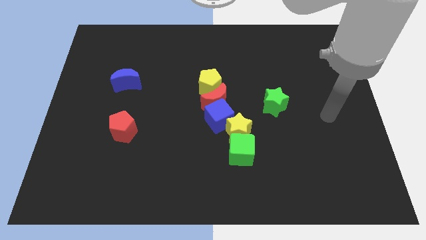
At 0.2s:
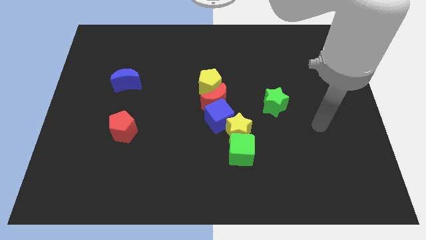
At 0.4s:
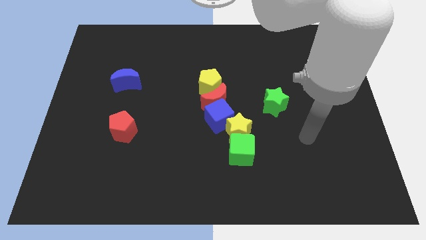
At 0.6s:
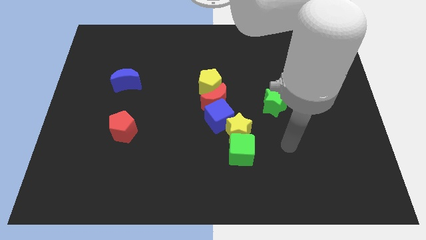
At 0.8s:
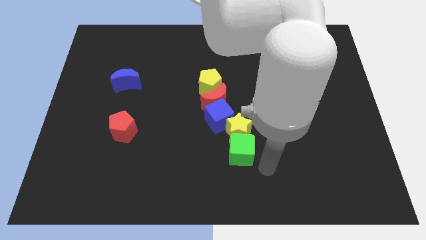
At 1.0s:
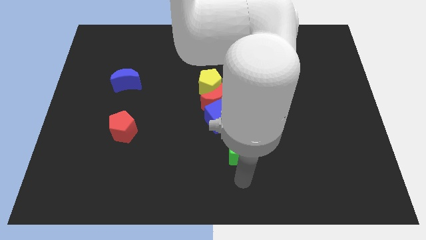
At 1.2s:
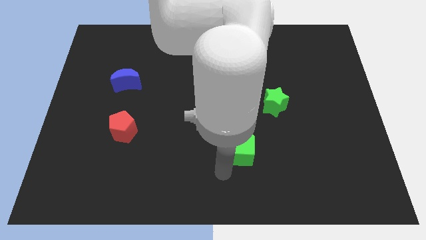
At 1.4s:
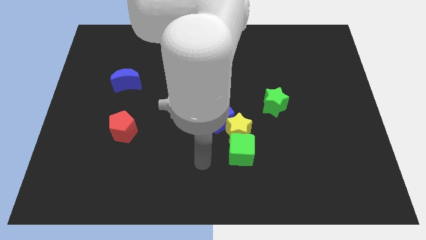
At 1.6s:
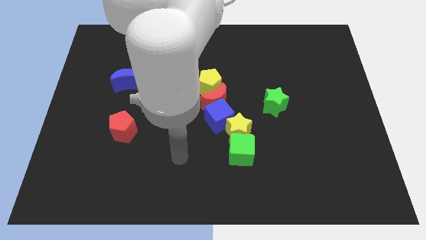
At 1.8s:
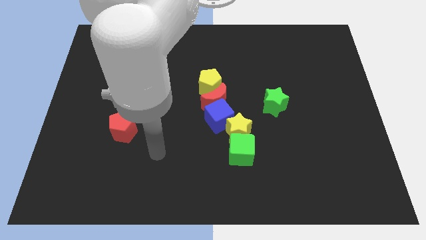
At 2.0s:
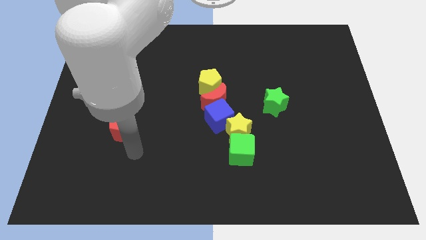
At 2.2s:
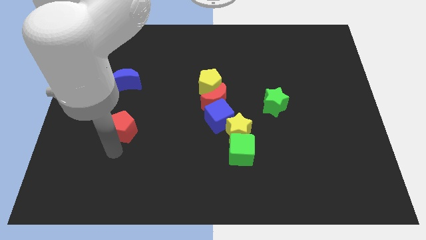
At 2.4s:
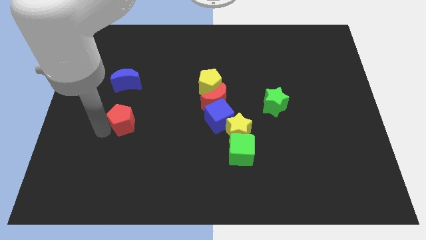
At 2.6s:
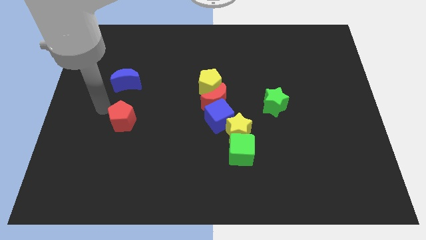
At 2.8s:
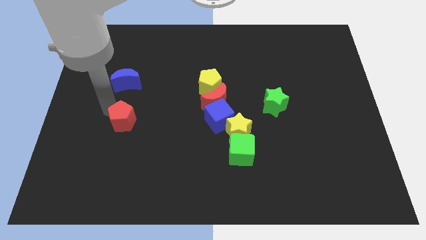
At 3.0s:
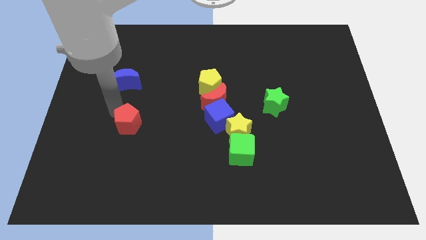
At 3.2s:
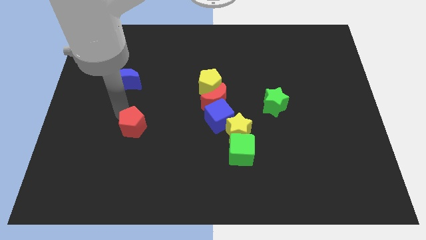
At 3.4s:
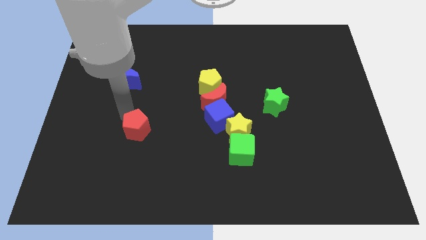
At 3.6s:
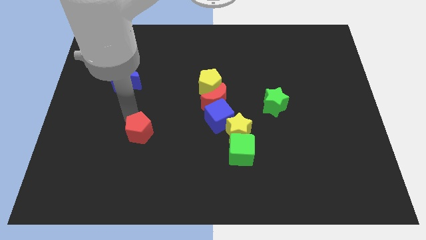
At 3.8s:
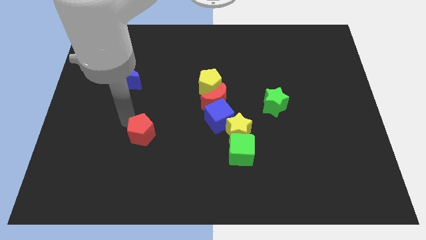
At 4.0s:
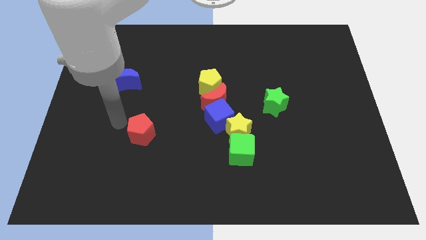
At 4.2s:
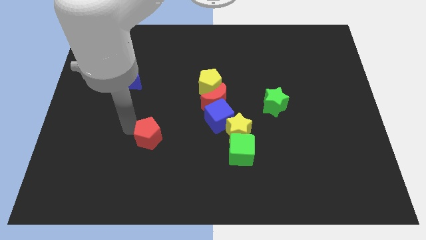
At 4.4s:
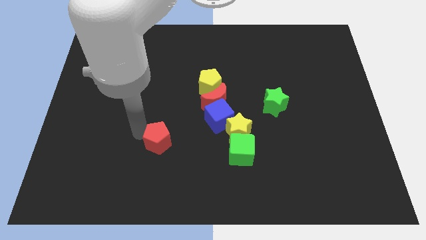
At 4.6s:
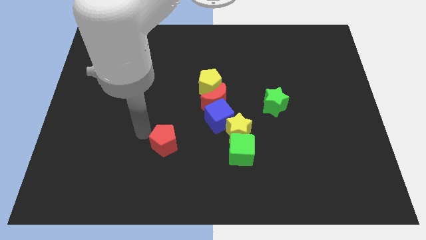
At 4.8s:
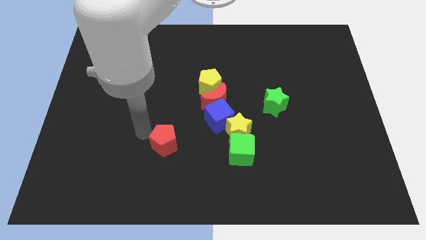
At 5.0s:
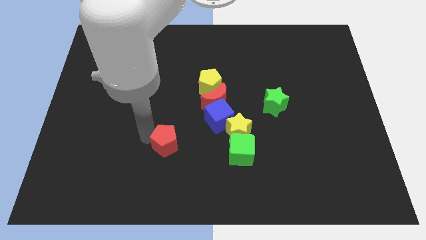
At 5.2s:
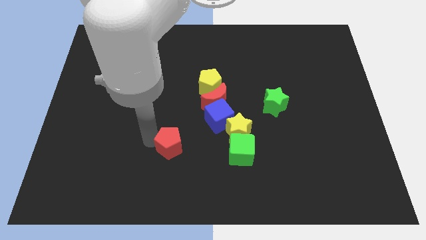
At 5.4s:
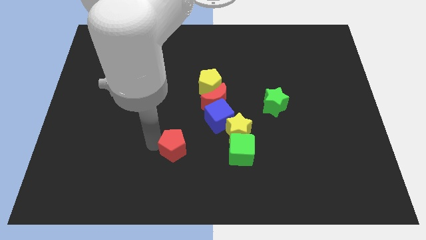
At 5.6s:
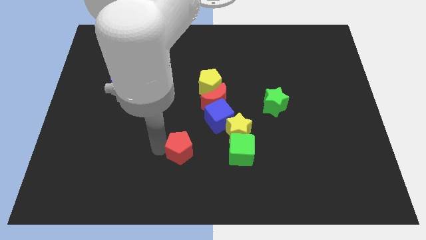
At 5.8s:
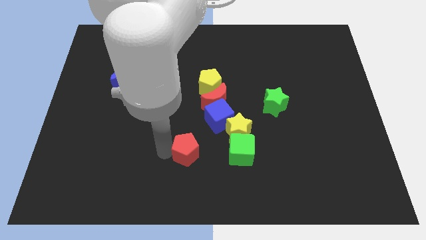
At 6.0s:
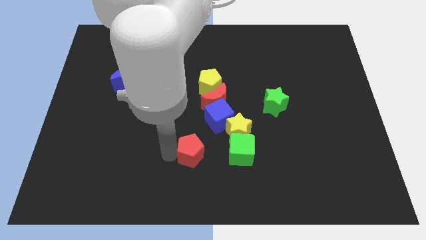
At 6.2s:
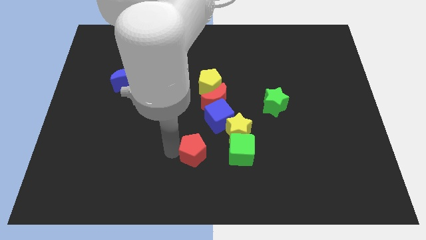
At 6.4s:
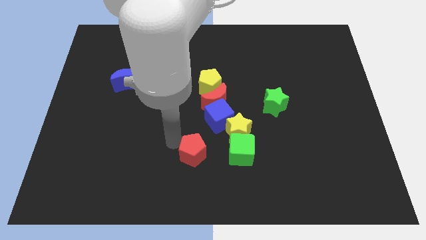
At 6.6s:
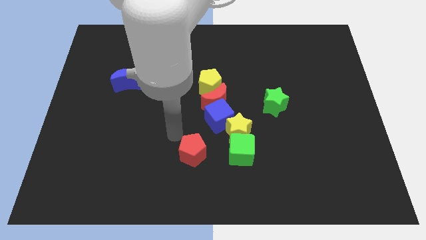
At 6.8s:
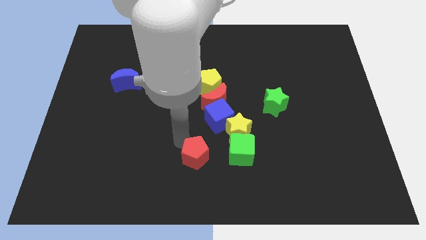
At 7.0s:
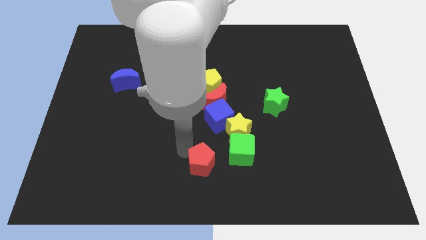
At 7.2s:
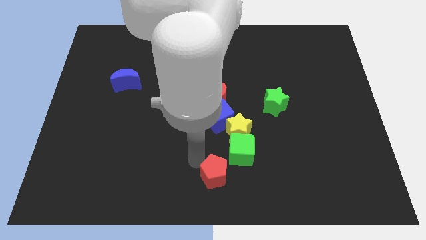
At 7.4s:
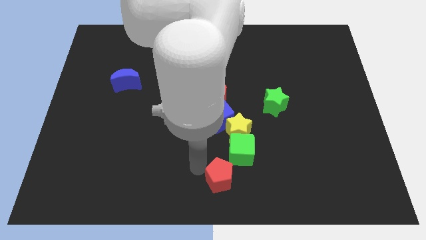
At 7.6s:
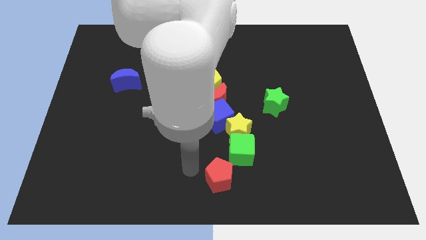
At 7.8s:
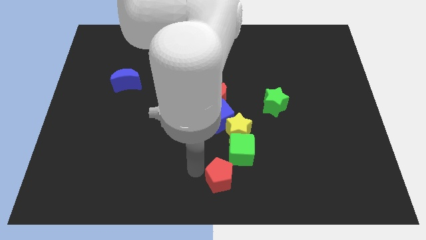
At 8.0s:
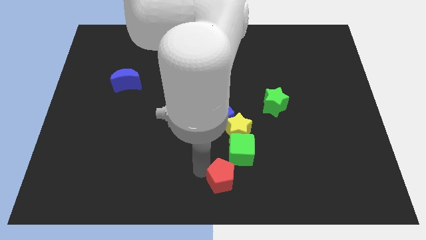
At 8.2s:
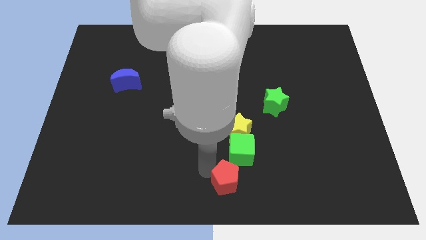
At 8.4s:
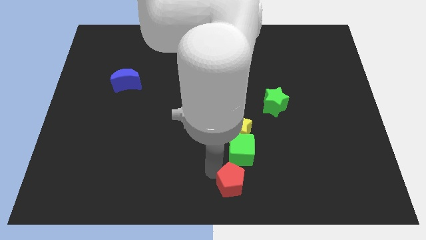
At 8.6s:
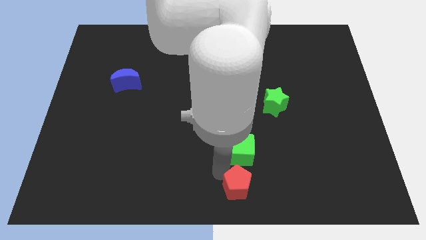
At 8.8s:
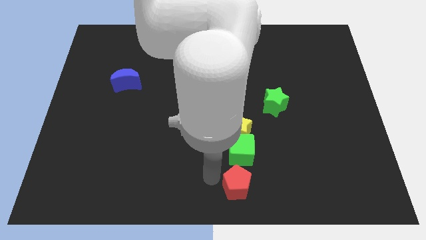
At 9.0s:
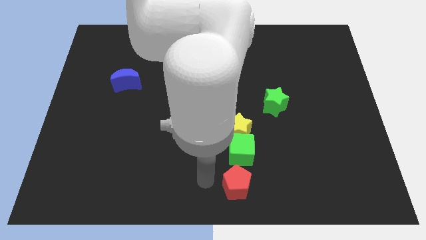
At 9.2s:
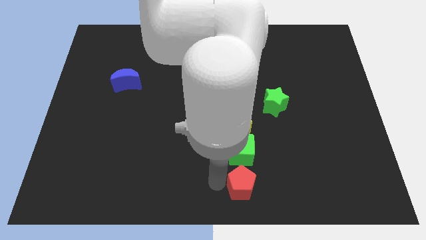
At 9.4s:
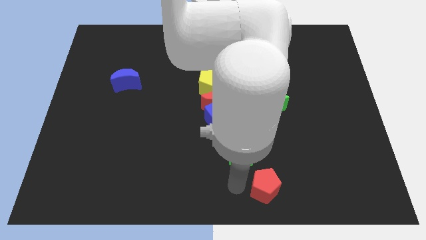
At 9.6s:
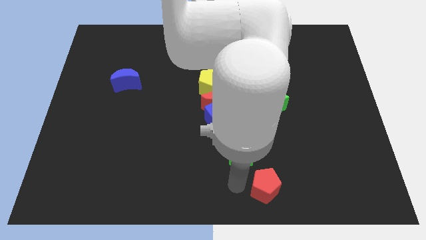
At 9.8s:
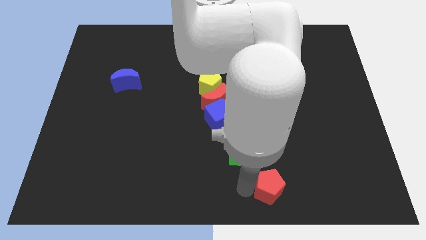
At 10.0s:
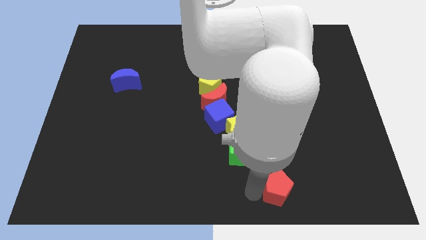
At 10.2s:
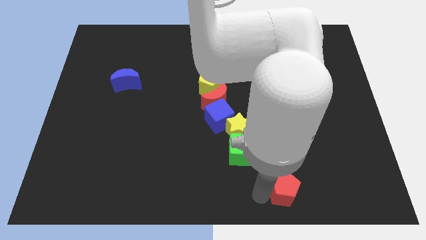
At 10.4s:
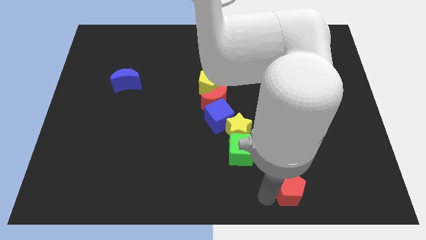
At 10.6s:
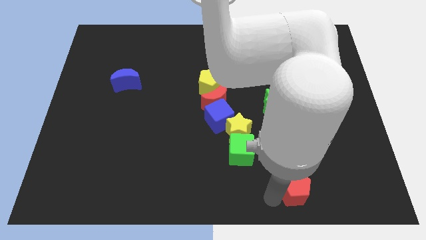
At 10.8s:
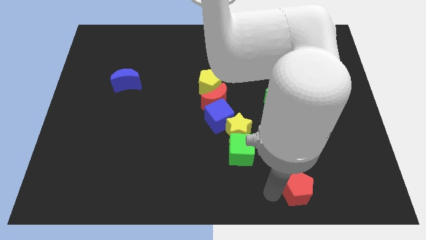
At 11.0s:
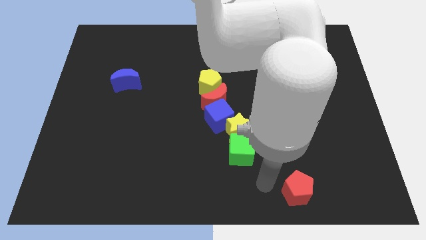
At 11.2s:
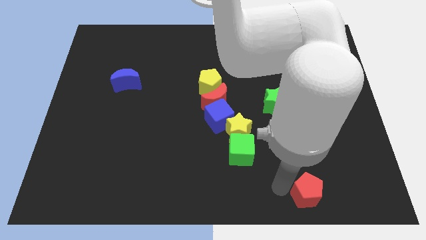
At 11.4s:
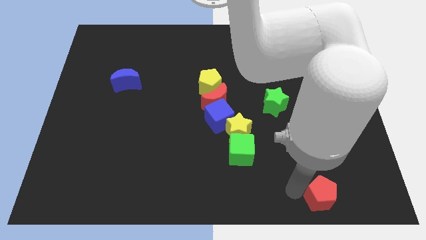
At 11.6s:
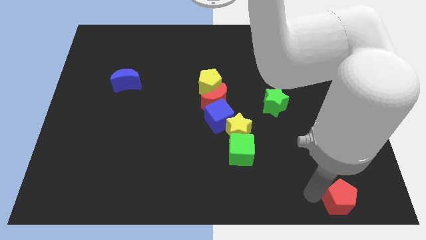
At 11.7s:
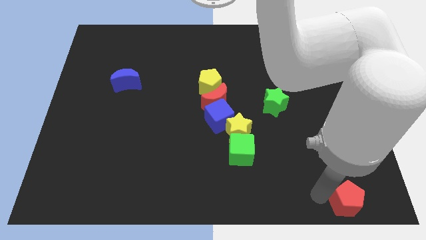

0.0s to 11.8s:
move the red pentagon to the bottom right corner
